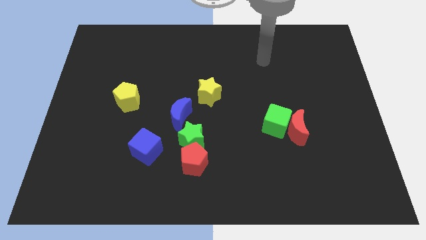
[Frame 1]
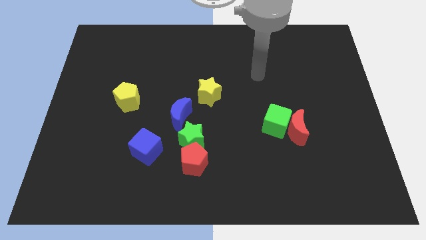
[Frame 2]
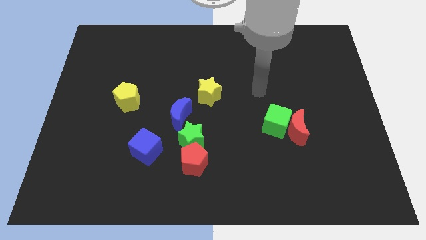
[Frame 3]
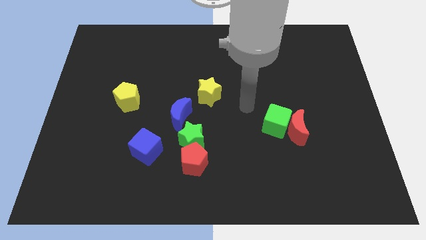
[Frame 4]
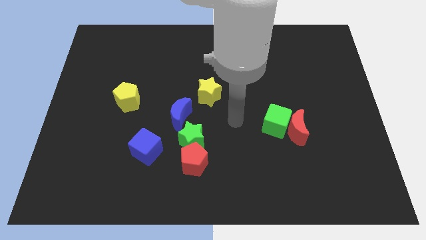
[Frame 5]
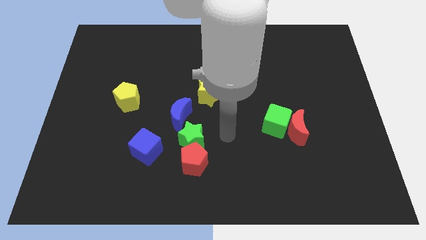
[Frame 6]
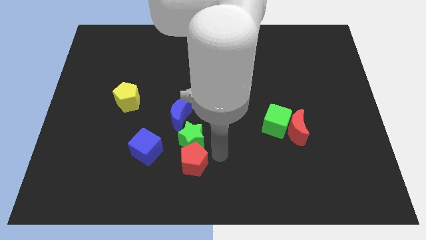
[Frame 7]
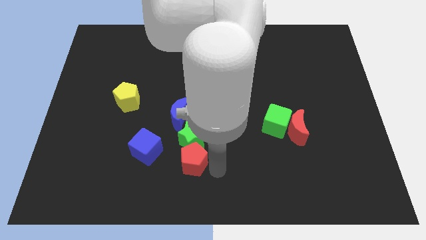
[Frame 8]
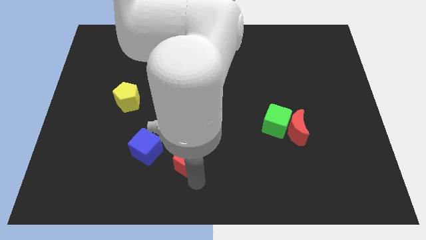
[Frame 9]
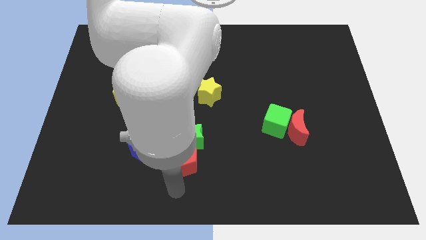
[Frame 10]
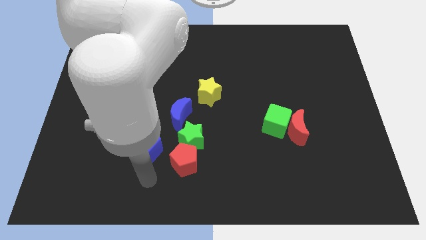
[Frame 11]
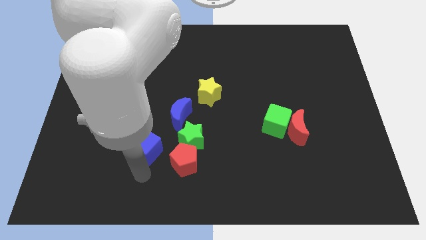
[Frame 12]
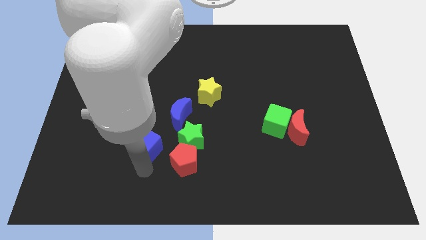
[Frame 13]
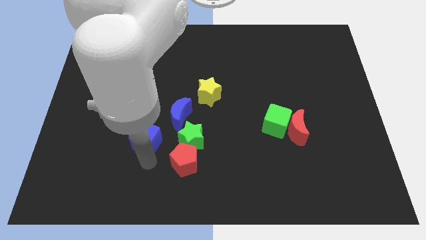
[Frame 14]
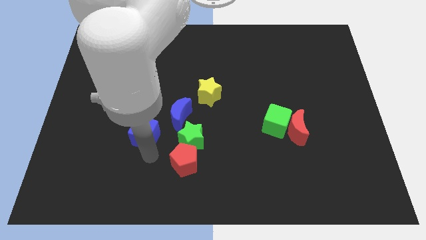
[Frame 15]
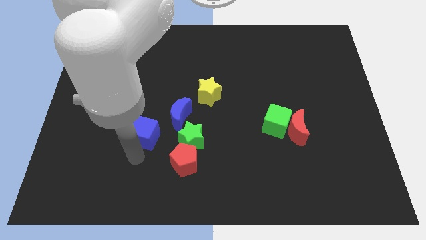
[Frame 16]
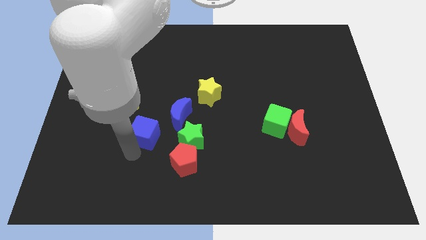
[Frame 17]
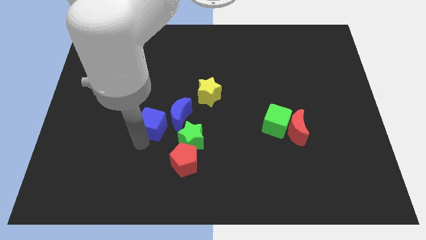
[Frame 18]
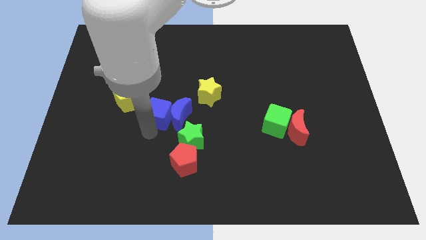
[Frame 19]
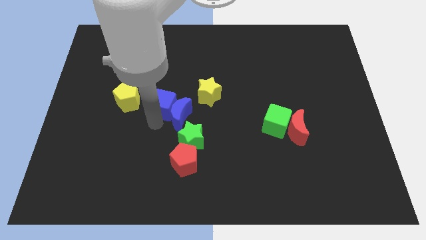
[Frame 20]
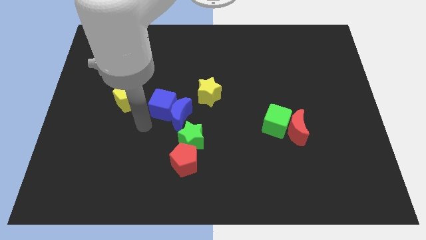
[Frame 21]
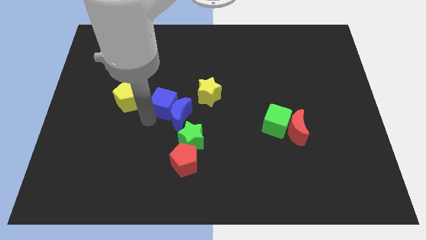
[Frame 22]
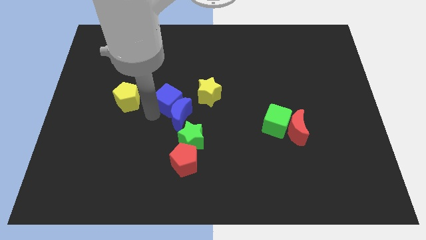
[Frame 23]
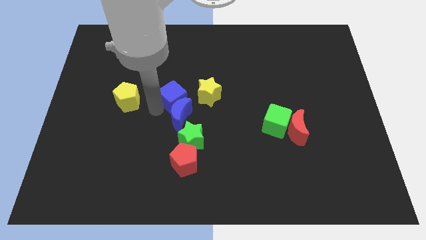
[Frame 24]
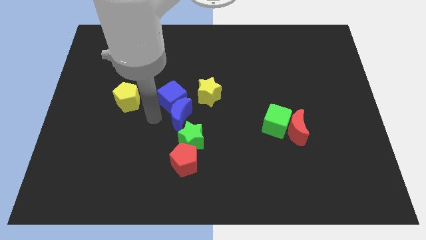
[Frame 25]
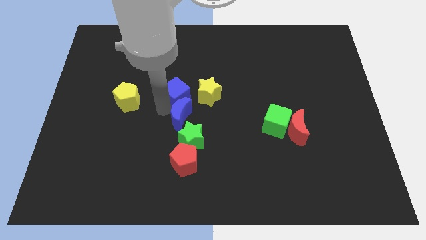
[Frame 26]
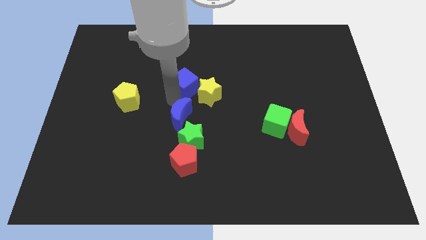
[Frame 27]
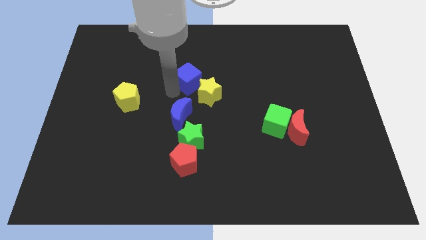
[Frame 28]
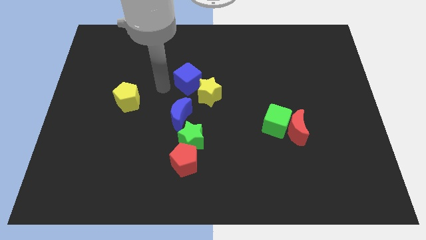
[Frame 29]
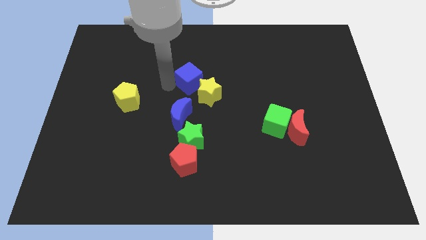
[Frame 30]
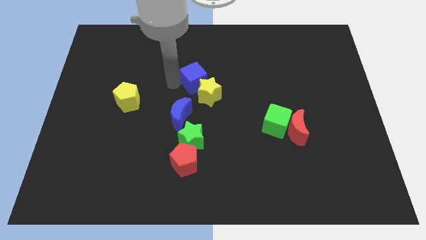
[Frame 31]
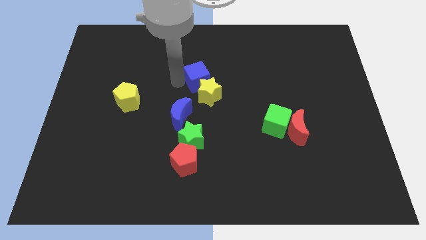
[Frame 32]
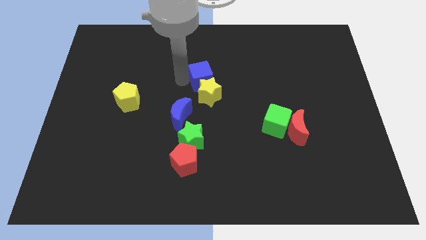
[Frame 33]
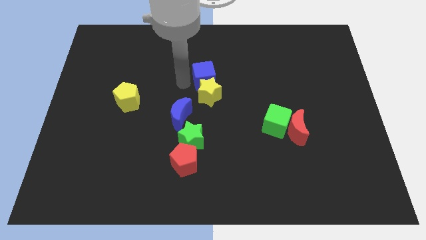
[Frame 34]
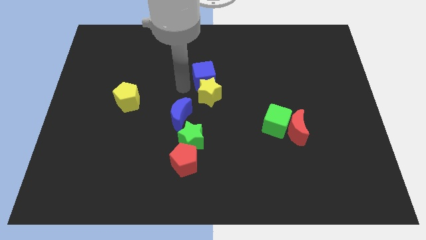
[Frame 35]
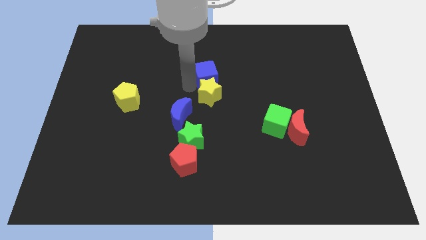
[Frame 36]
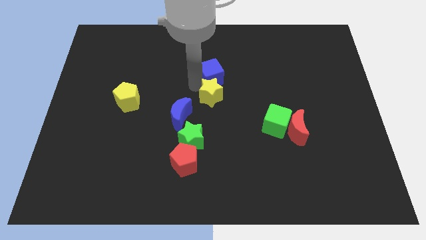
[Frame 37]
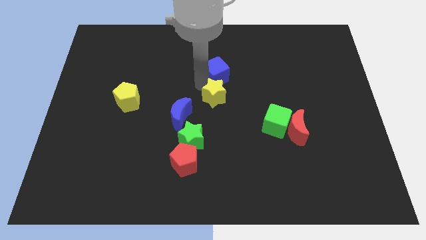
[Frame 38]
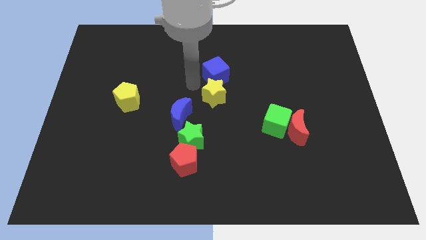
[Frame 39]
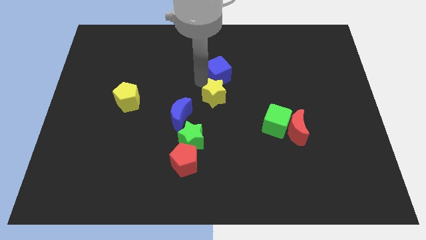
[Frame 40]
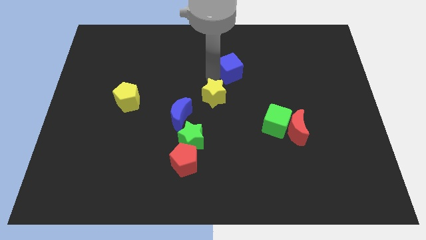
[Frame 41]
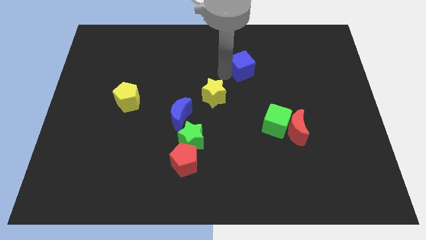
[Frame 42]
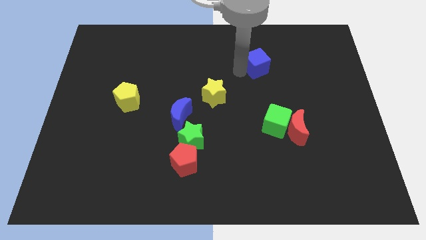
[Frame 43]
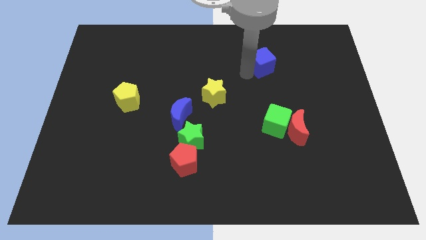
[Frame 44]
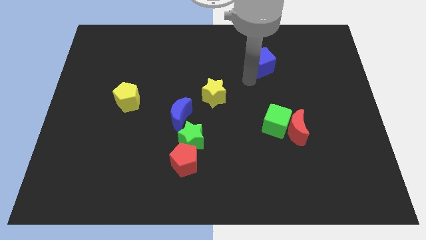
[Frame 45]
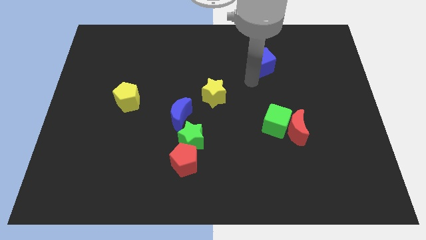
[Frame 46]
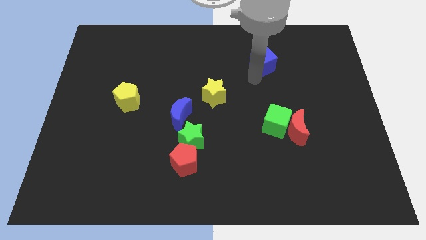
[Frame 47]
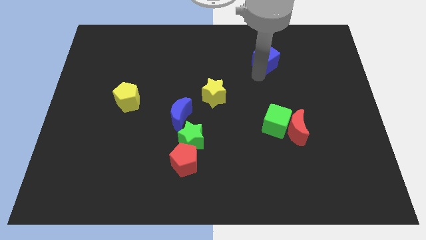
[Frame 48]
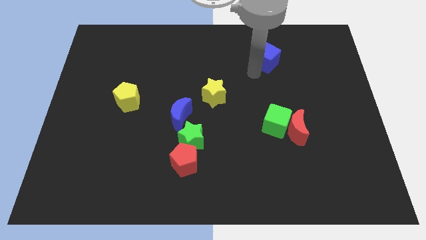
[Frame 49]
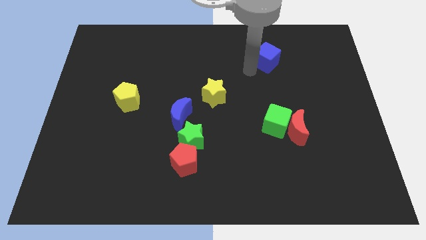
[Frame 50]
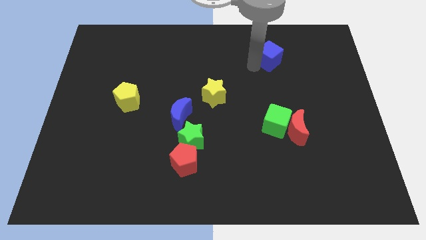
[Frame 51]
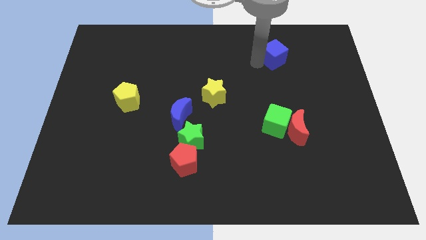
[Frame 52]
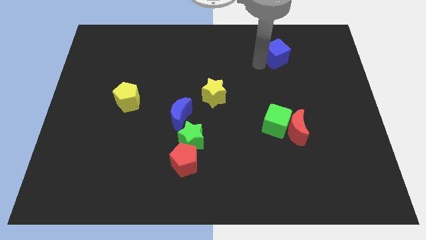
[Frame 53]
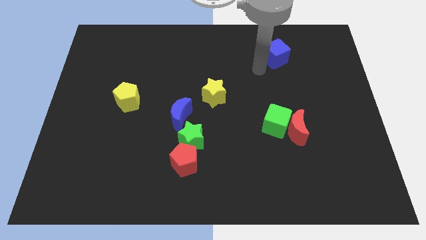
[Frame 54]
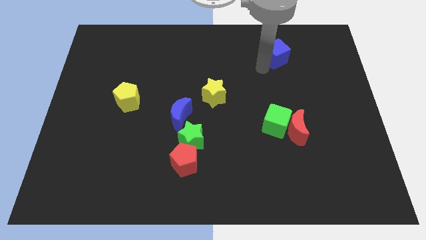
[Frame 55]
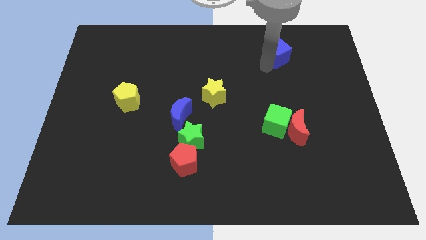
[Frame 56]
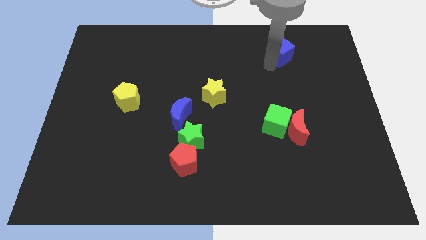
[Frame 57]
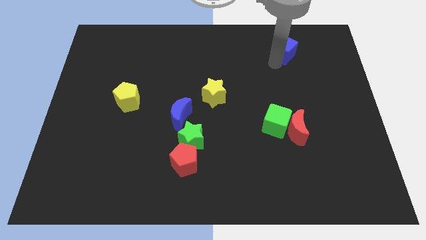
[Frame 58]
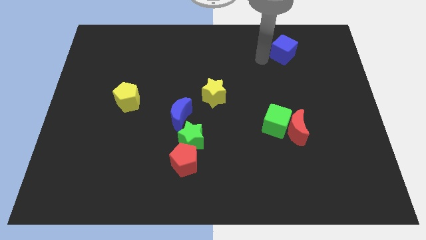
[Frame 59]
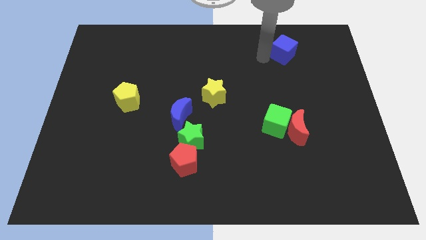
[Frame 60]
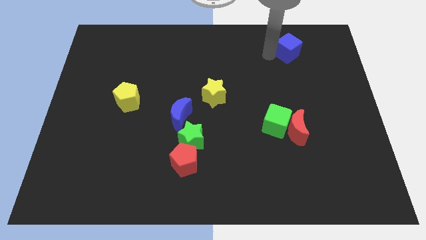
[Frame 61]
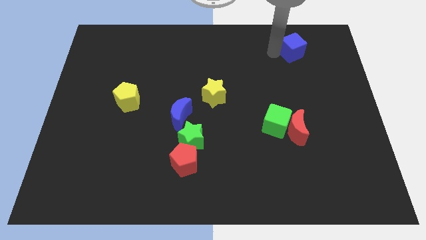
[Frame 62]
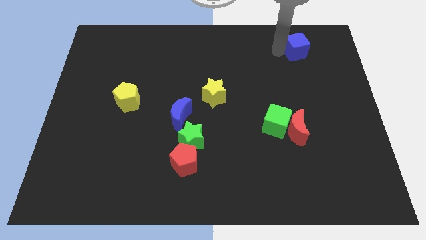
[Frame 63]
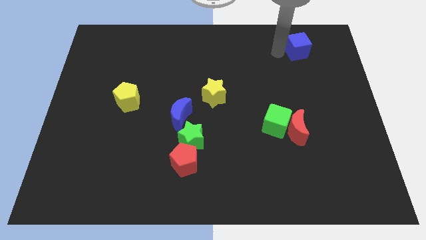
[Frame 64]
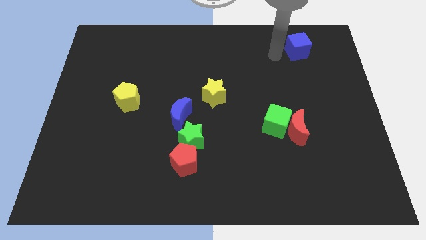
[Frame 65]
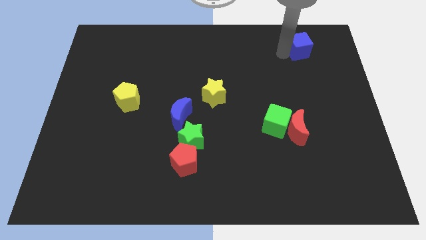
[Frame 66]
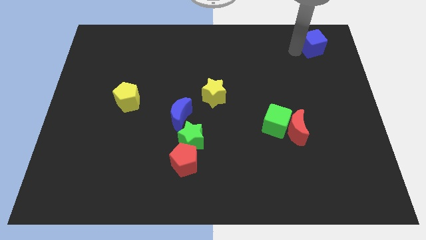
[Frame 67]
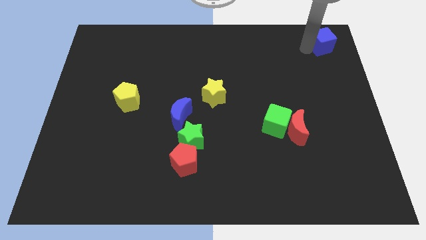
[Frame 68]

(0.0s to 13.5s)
slide the blue cube to the top right
